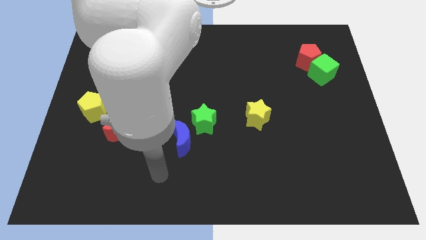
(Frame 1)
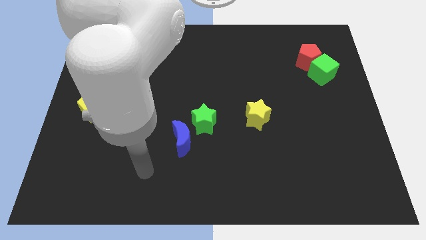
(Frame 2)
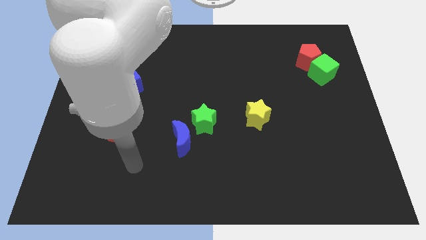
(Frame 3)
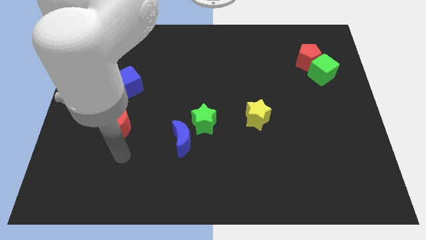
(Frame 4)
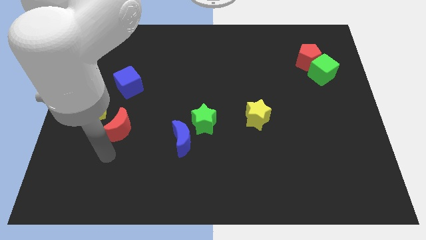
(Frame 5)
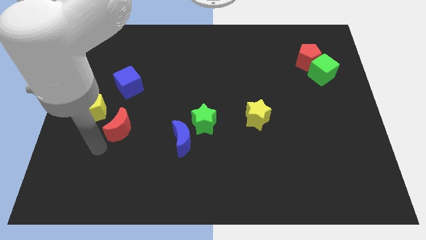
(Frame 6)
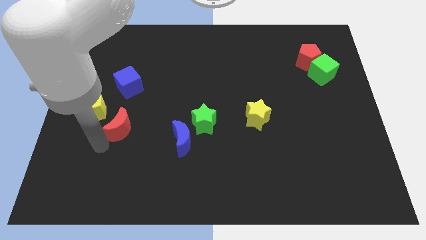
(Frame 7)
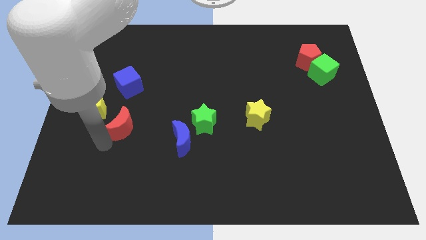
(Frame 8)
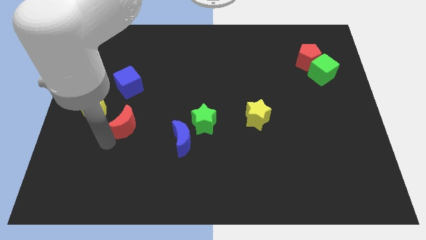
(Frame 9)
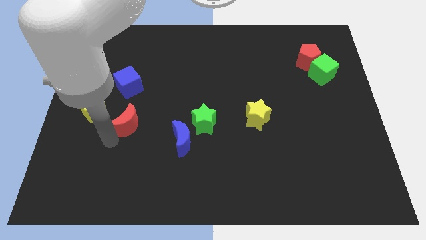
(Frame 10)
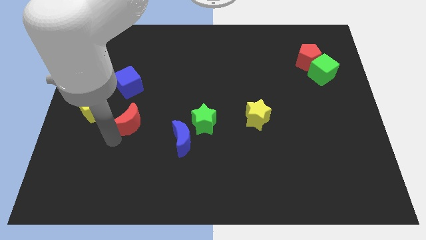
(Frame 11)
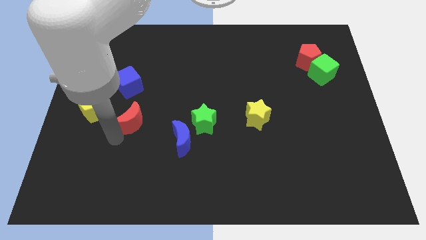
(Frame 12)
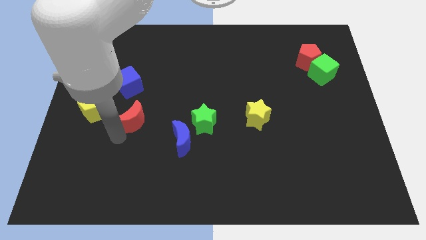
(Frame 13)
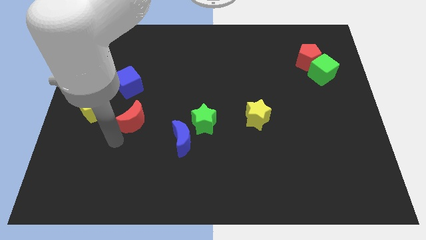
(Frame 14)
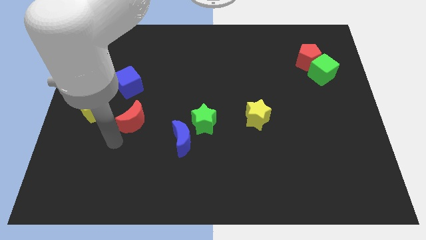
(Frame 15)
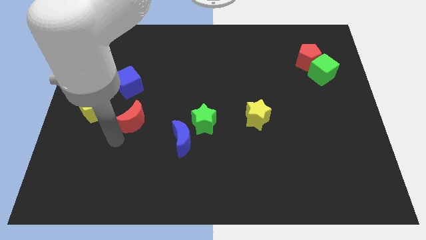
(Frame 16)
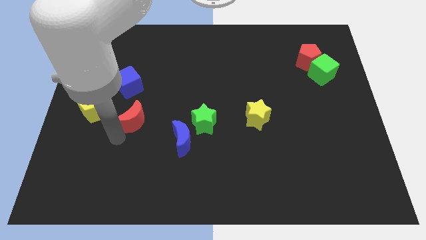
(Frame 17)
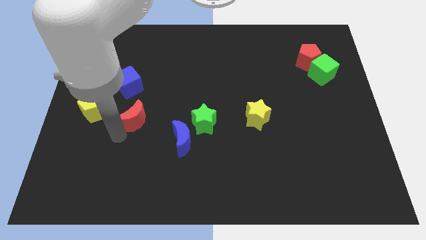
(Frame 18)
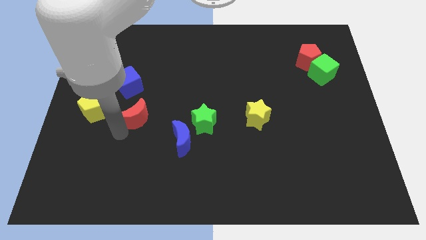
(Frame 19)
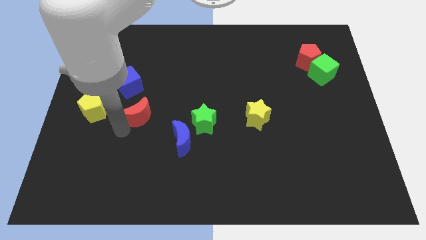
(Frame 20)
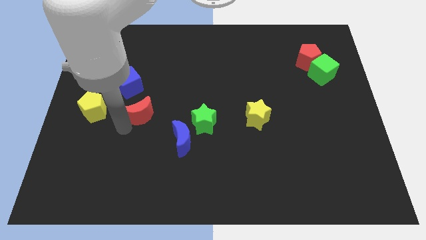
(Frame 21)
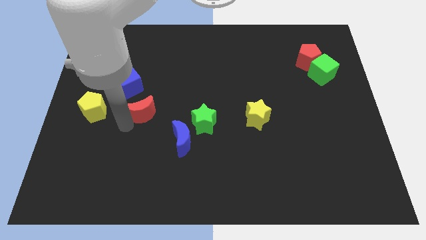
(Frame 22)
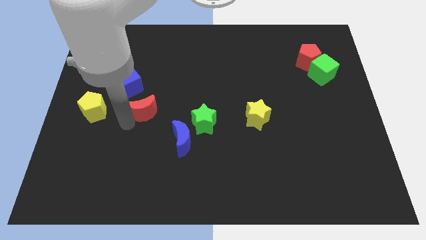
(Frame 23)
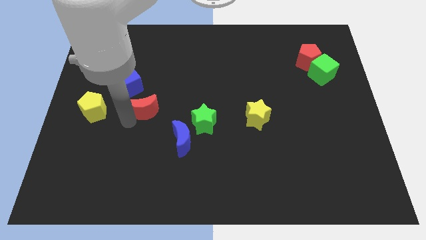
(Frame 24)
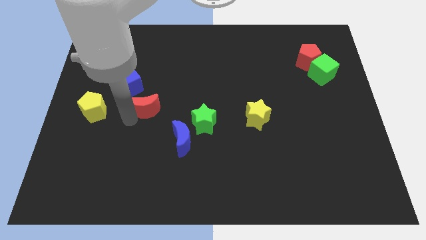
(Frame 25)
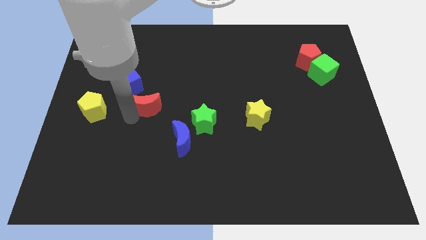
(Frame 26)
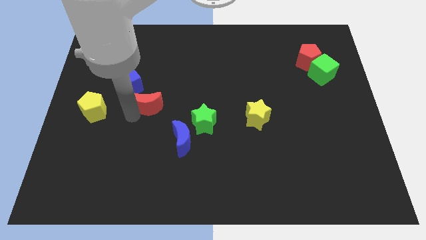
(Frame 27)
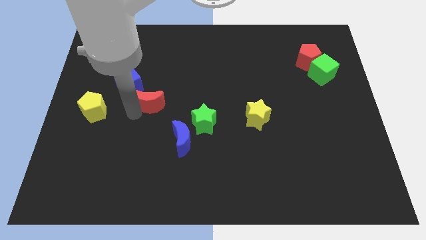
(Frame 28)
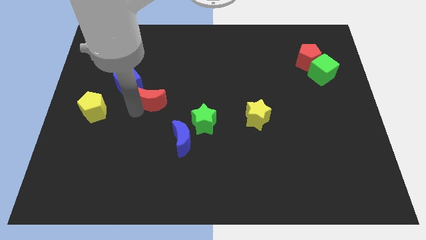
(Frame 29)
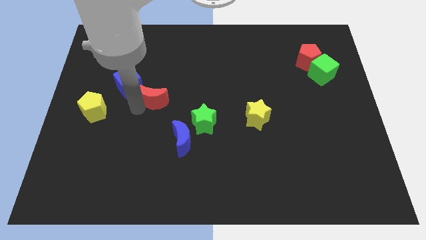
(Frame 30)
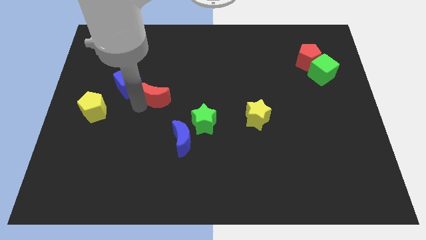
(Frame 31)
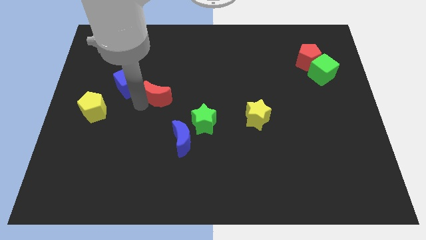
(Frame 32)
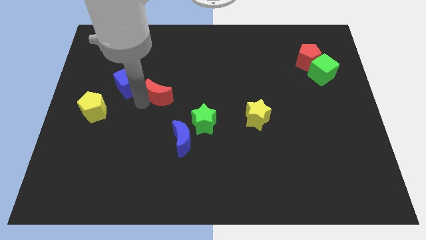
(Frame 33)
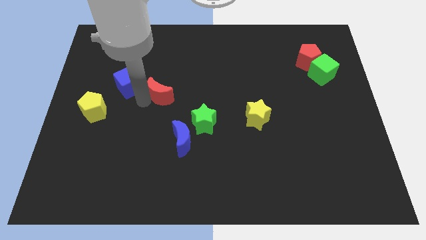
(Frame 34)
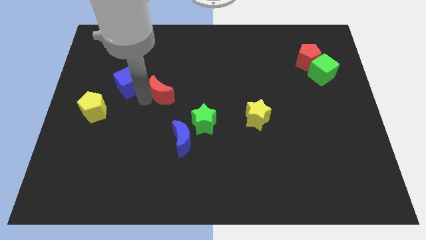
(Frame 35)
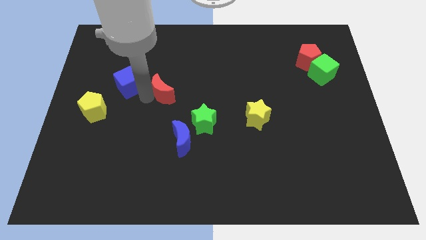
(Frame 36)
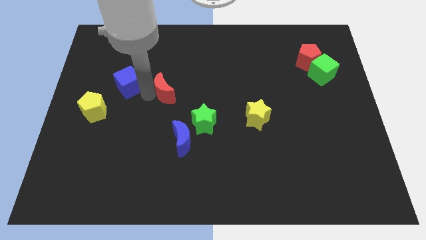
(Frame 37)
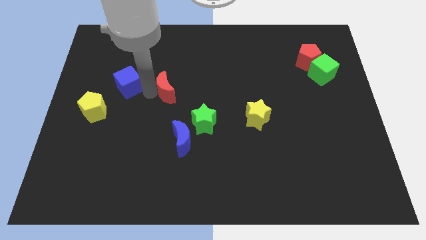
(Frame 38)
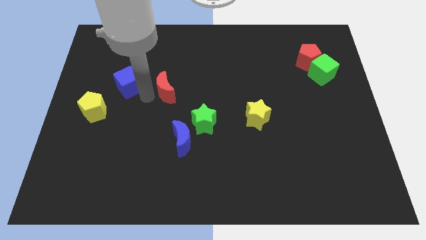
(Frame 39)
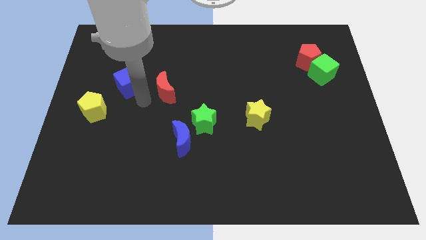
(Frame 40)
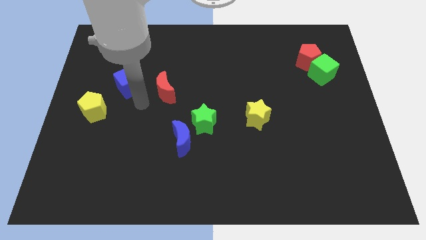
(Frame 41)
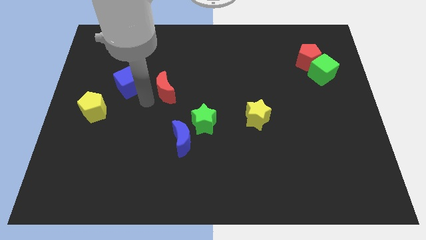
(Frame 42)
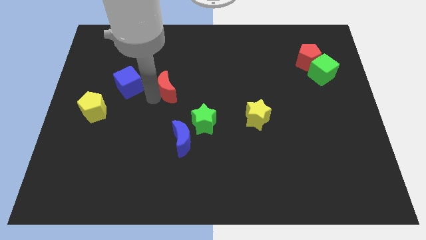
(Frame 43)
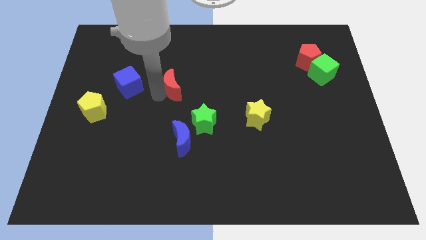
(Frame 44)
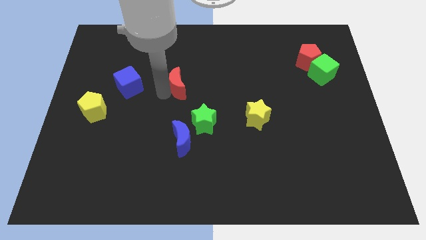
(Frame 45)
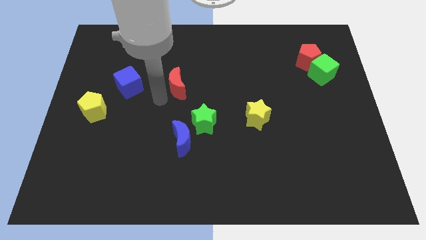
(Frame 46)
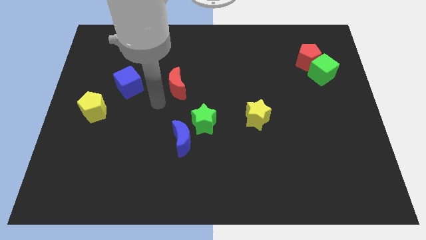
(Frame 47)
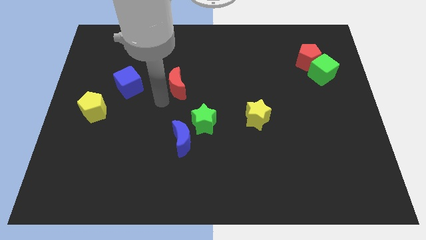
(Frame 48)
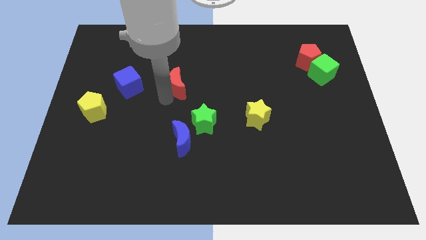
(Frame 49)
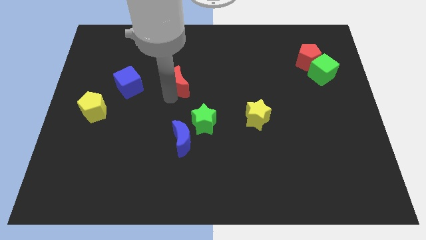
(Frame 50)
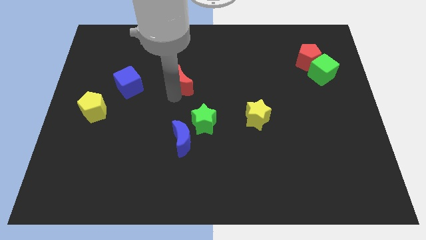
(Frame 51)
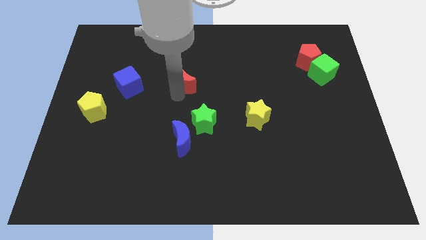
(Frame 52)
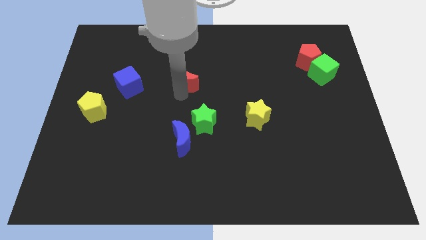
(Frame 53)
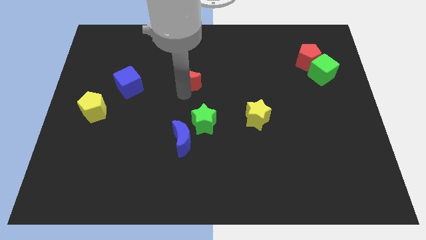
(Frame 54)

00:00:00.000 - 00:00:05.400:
slide the red moon diagonally up and to the right

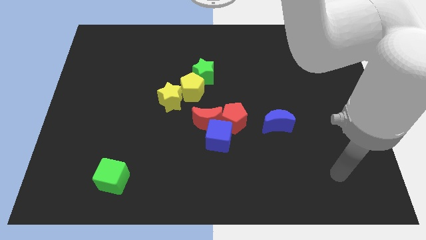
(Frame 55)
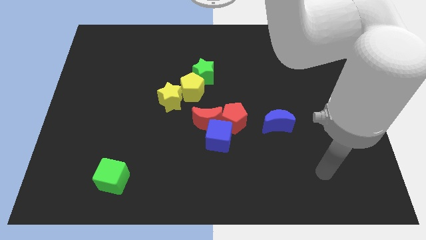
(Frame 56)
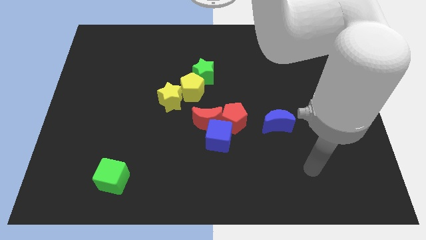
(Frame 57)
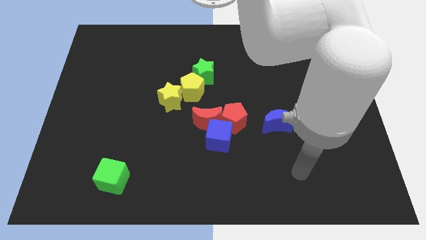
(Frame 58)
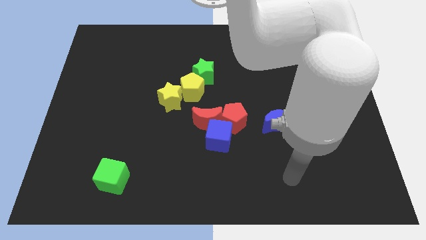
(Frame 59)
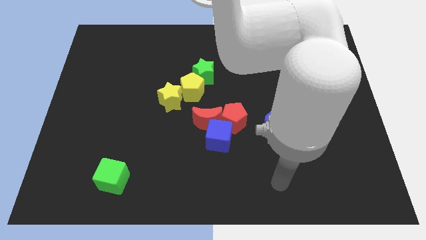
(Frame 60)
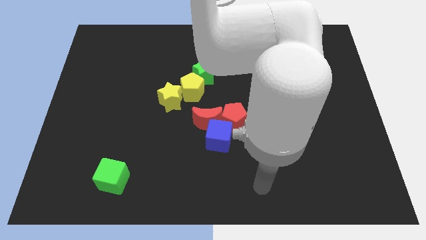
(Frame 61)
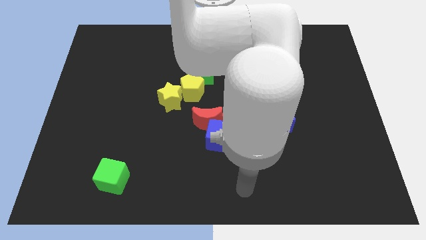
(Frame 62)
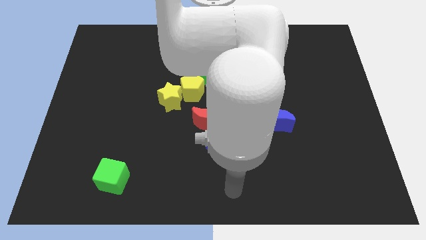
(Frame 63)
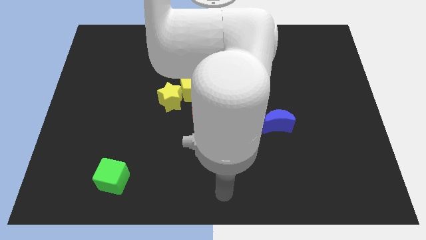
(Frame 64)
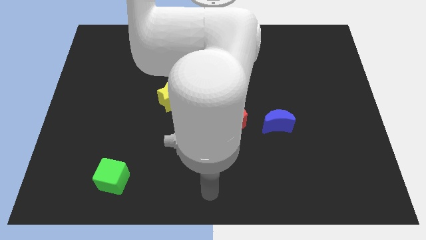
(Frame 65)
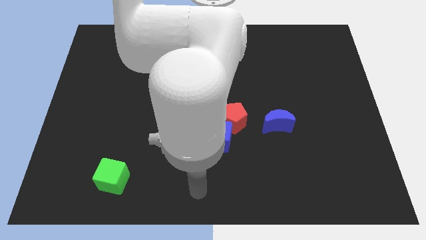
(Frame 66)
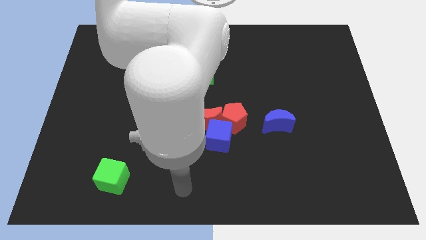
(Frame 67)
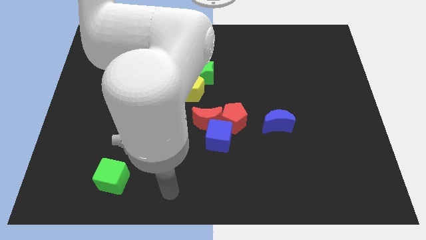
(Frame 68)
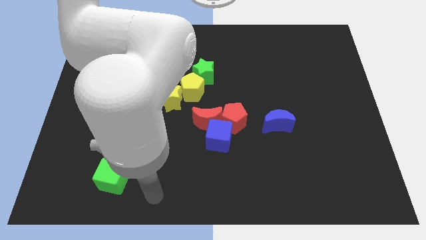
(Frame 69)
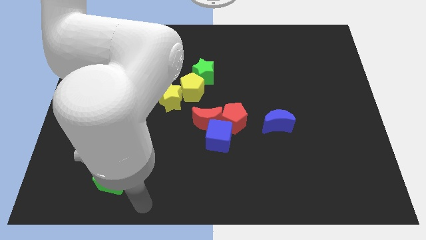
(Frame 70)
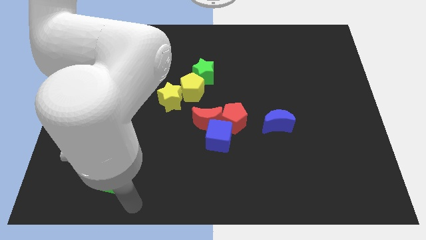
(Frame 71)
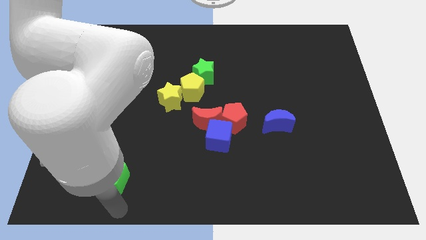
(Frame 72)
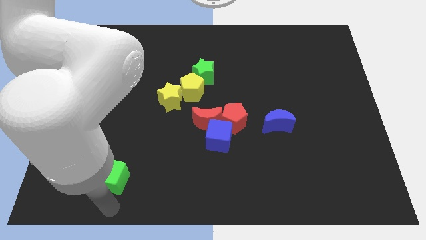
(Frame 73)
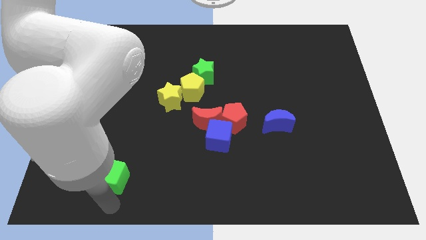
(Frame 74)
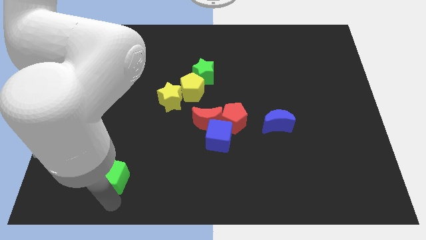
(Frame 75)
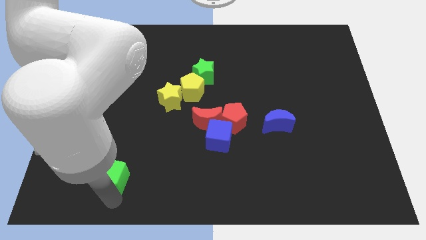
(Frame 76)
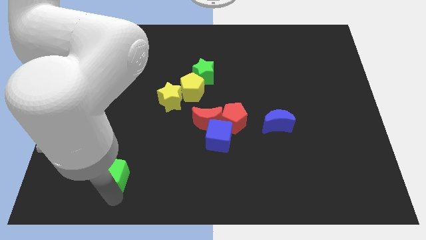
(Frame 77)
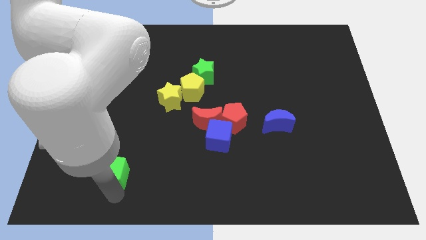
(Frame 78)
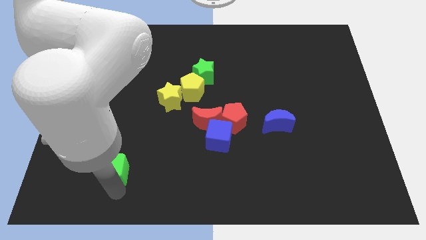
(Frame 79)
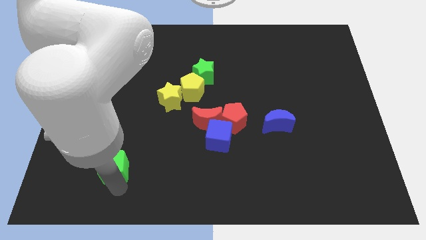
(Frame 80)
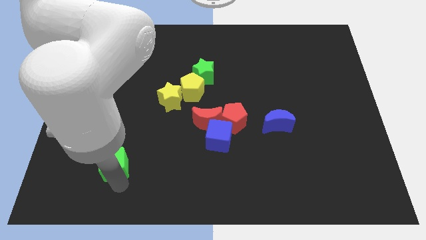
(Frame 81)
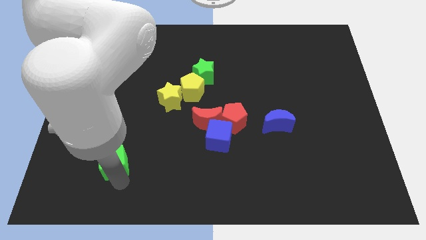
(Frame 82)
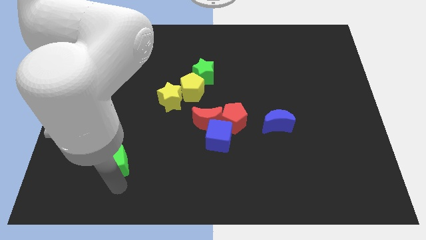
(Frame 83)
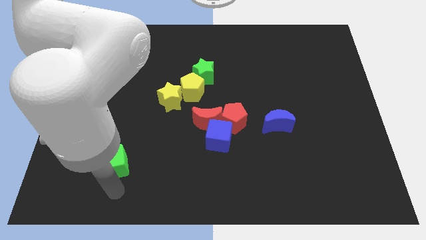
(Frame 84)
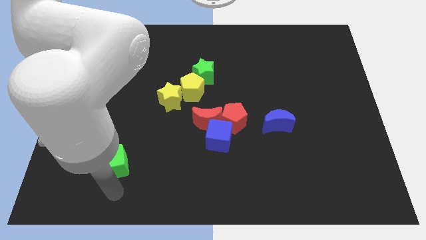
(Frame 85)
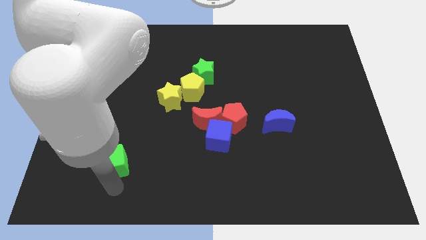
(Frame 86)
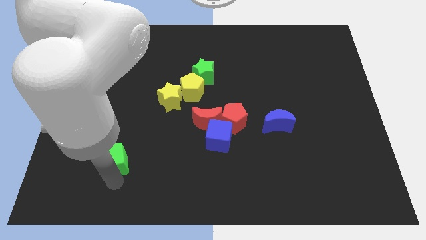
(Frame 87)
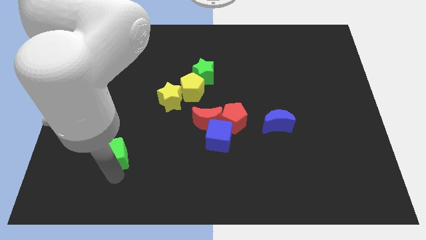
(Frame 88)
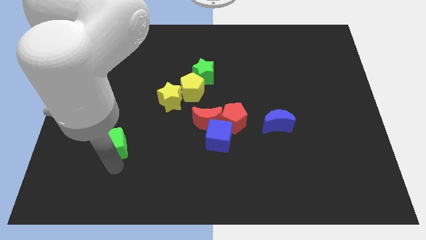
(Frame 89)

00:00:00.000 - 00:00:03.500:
slightly push the green cube up
